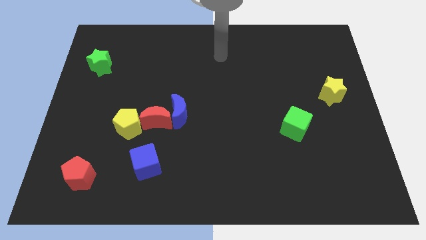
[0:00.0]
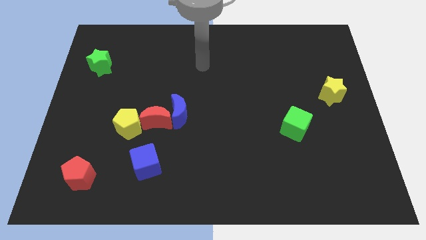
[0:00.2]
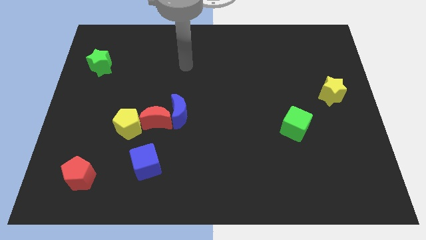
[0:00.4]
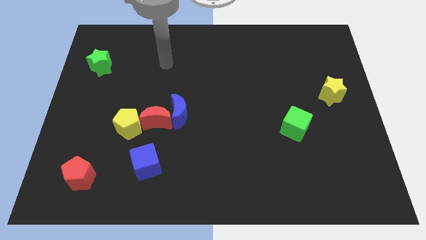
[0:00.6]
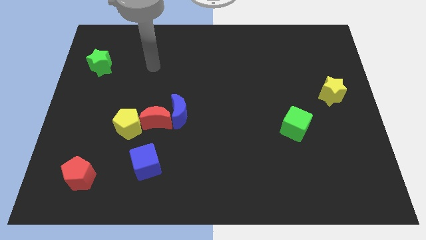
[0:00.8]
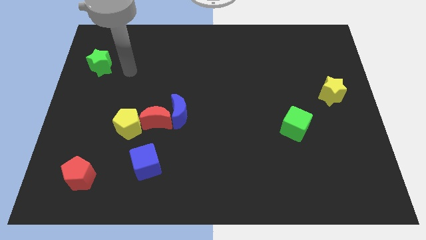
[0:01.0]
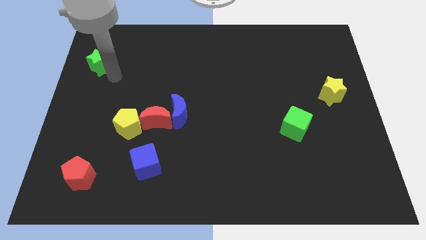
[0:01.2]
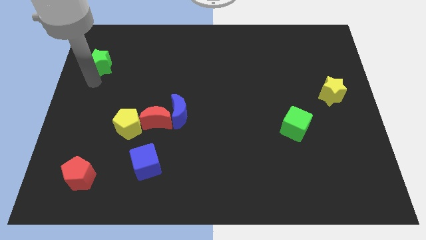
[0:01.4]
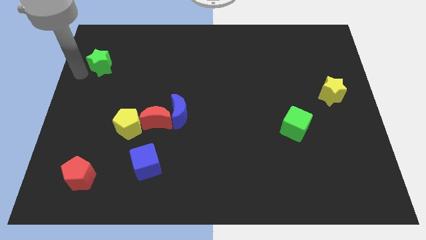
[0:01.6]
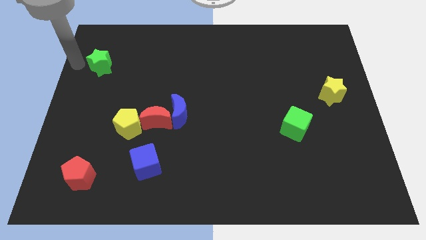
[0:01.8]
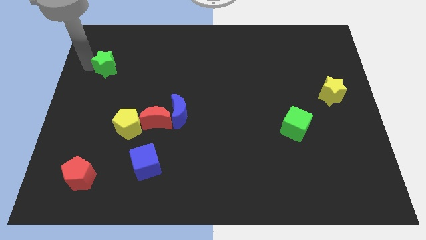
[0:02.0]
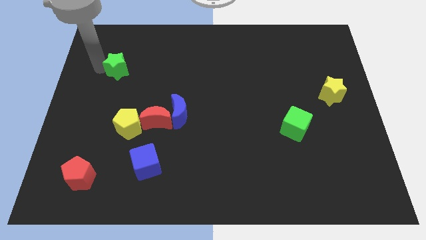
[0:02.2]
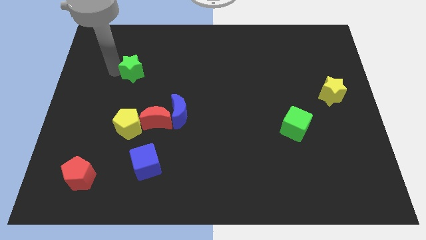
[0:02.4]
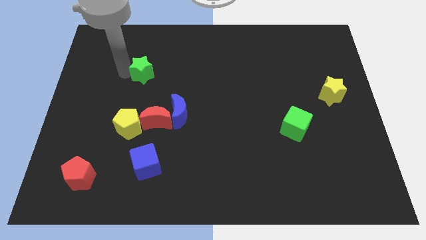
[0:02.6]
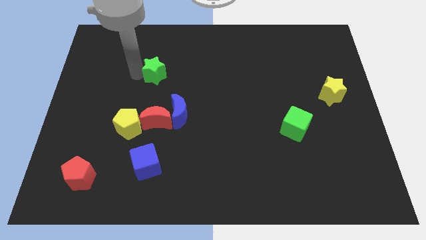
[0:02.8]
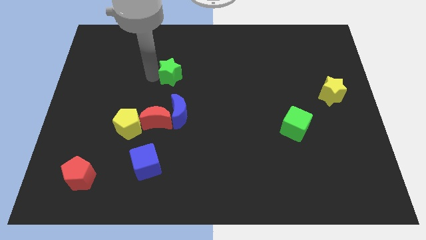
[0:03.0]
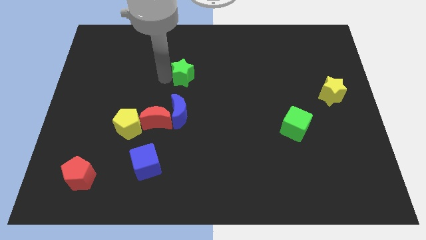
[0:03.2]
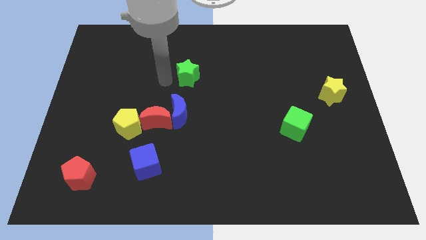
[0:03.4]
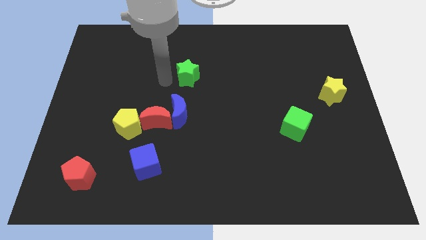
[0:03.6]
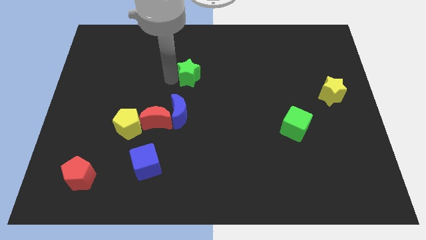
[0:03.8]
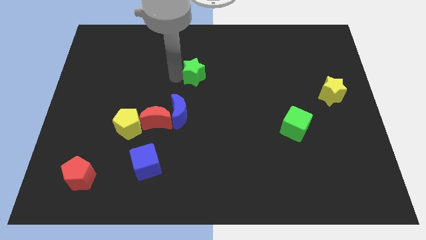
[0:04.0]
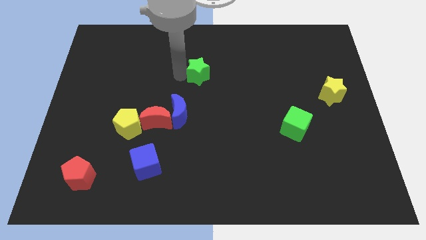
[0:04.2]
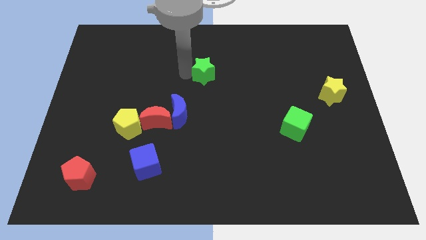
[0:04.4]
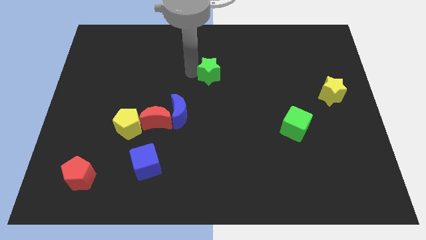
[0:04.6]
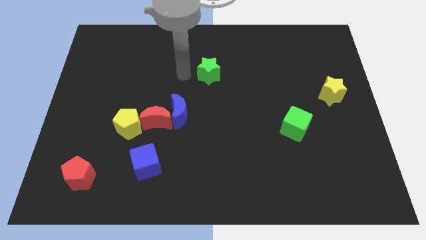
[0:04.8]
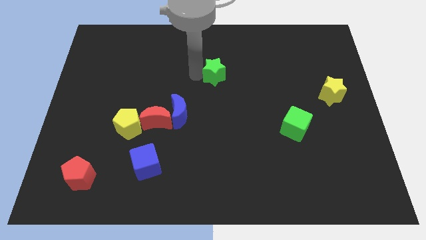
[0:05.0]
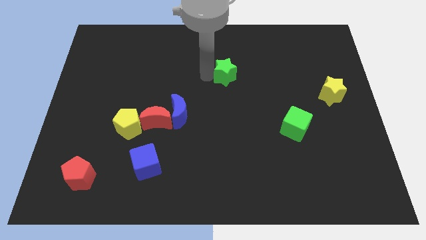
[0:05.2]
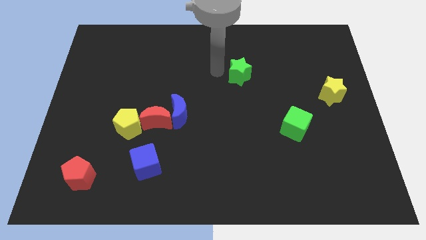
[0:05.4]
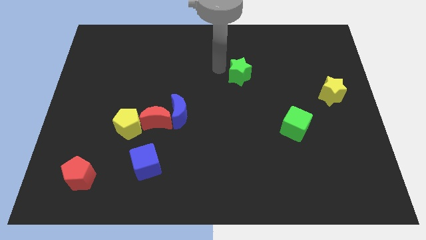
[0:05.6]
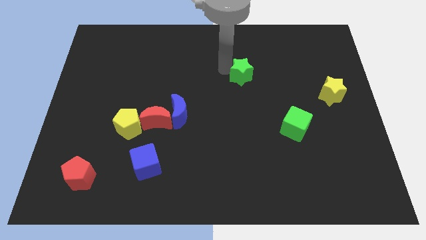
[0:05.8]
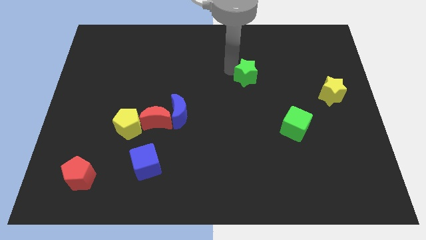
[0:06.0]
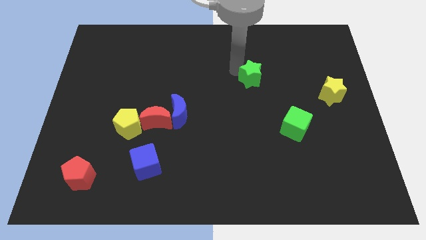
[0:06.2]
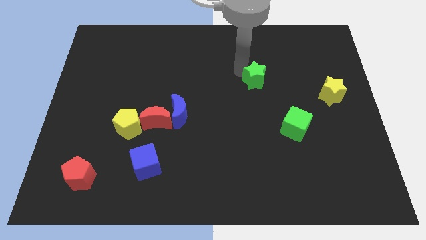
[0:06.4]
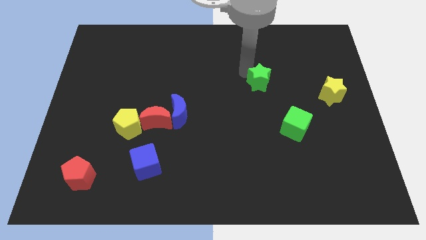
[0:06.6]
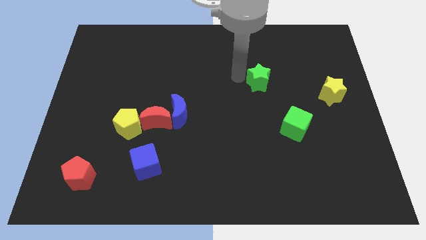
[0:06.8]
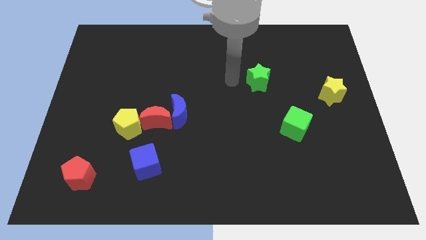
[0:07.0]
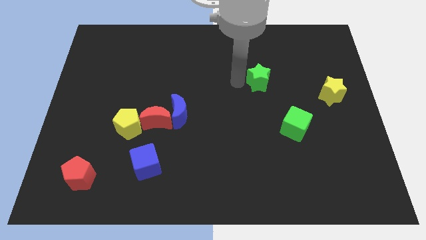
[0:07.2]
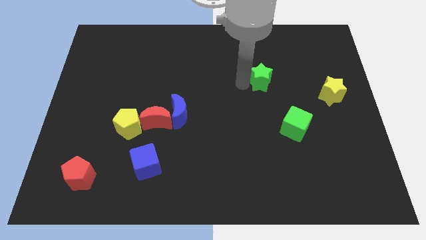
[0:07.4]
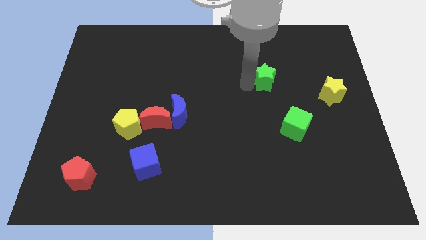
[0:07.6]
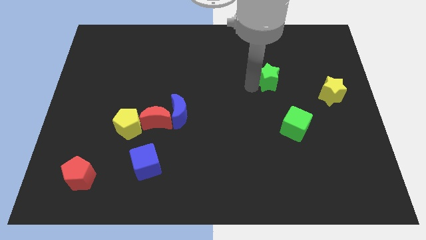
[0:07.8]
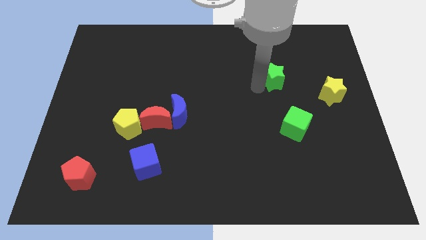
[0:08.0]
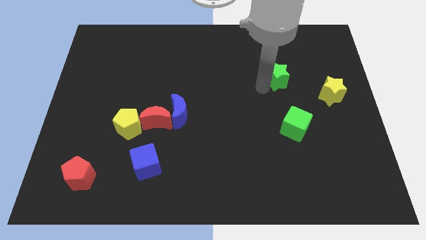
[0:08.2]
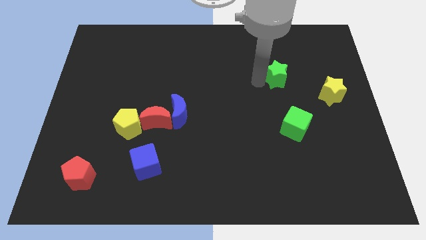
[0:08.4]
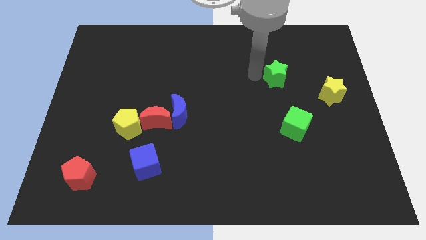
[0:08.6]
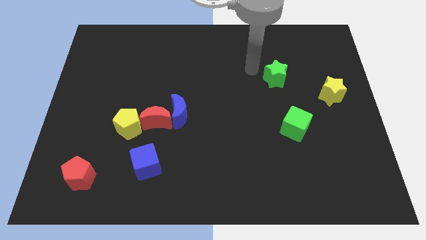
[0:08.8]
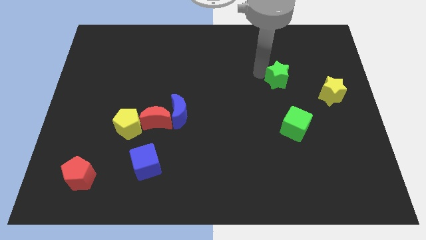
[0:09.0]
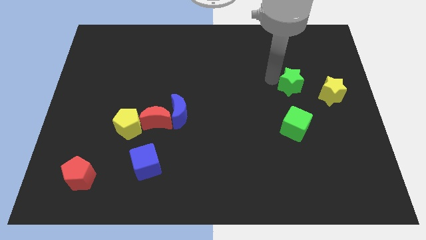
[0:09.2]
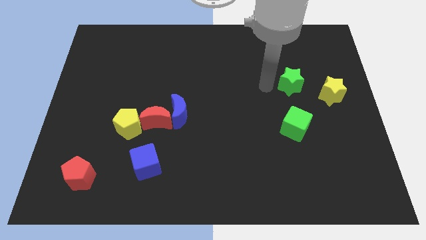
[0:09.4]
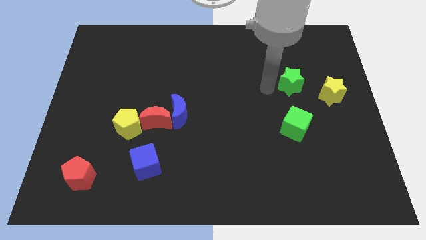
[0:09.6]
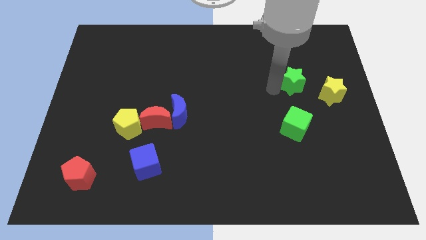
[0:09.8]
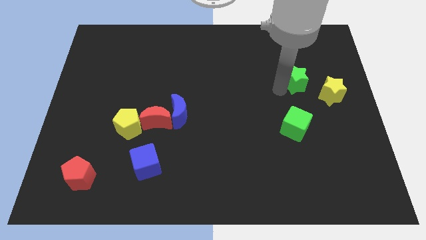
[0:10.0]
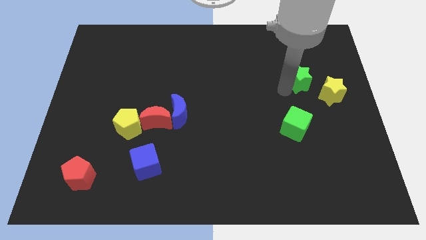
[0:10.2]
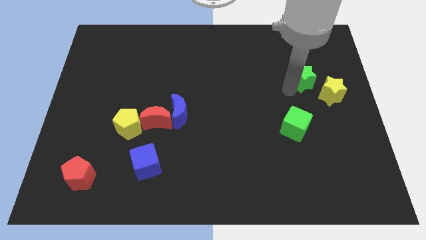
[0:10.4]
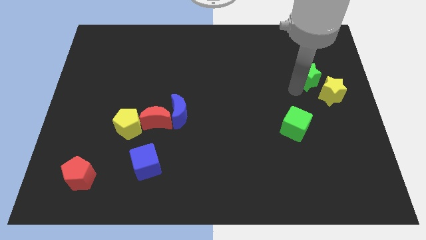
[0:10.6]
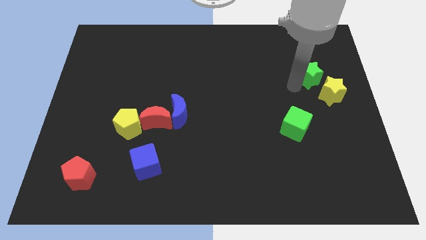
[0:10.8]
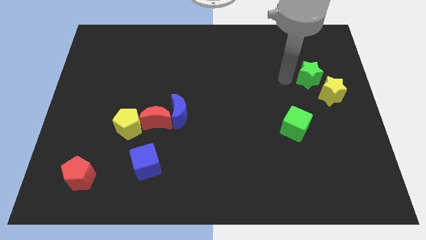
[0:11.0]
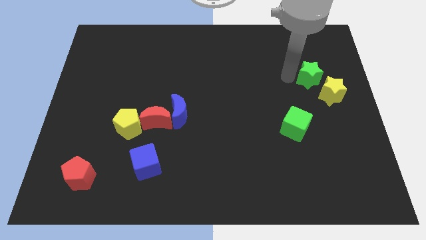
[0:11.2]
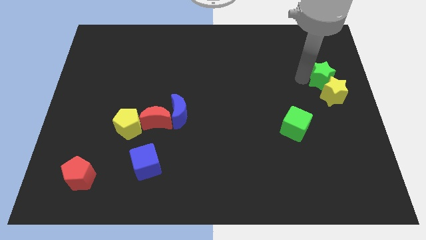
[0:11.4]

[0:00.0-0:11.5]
slide the green star to the right side of the board
